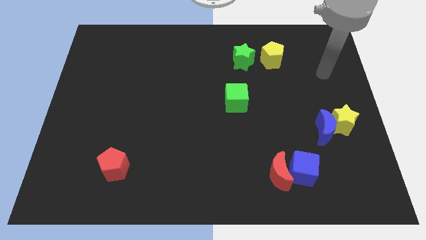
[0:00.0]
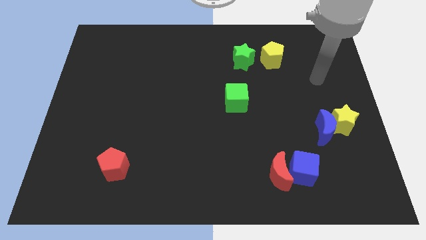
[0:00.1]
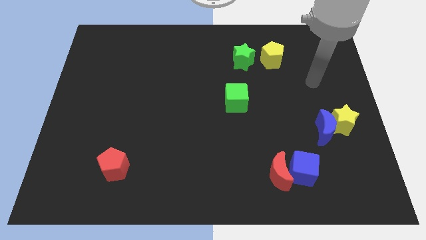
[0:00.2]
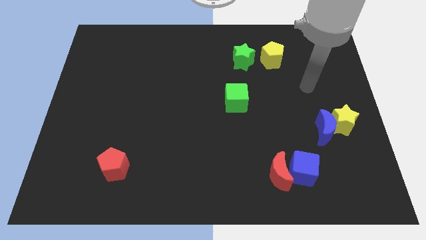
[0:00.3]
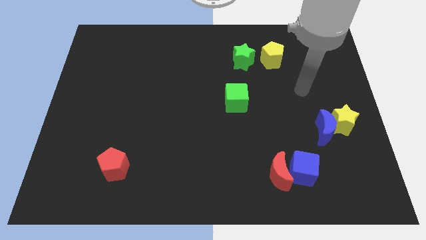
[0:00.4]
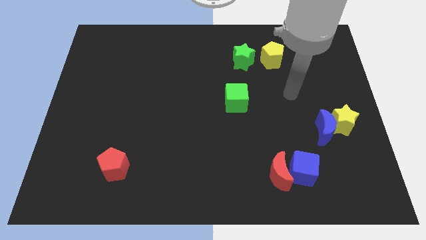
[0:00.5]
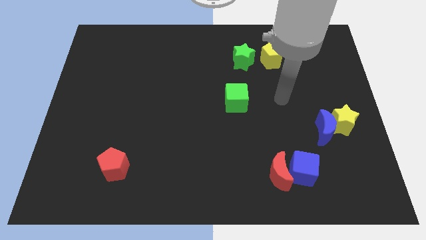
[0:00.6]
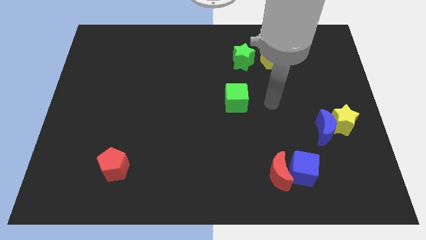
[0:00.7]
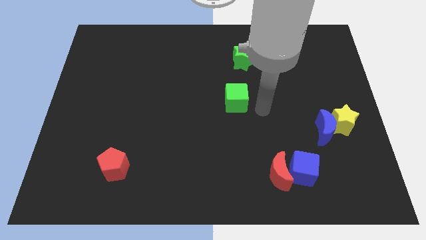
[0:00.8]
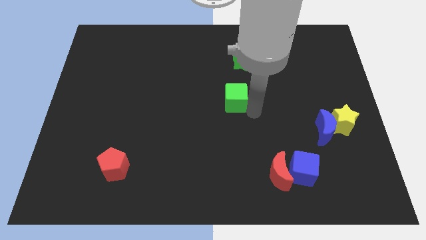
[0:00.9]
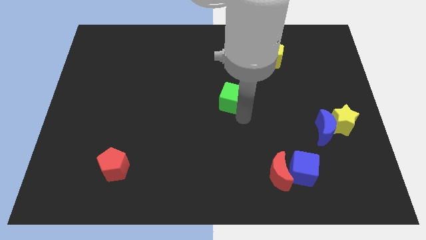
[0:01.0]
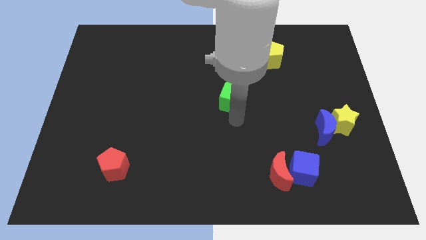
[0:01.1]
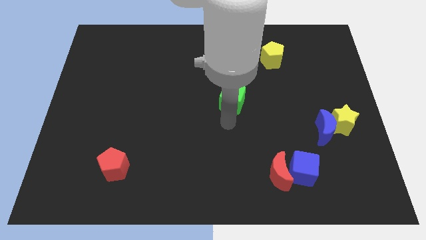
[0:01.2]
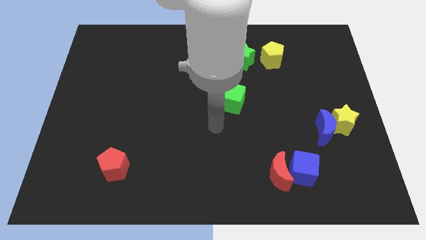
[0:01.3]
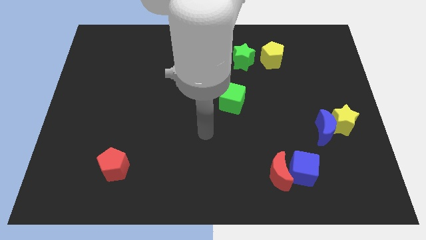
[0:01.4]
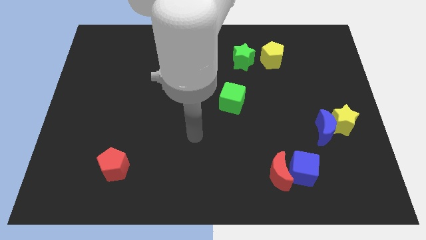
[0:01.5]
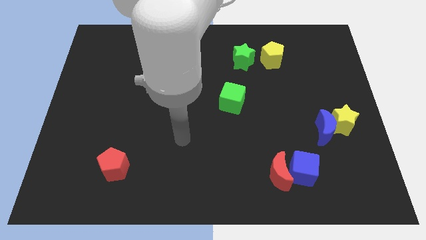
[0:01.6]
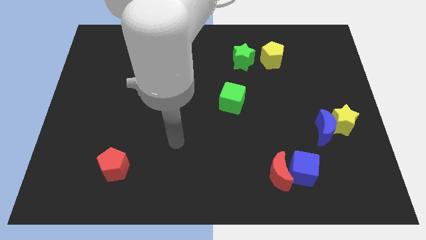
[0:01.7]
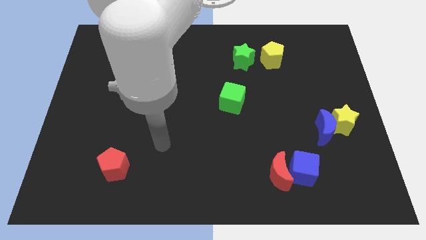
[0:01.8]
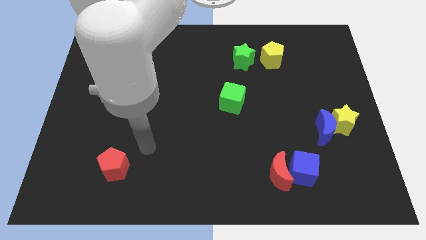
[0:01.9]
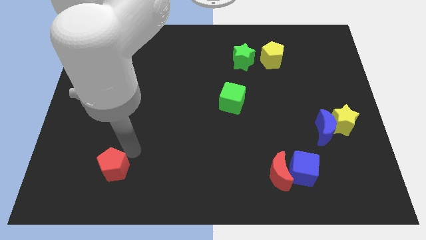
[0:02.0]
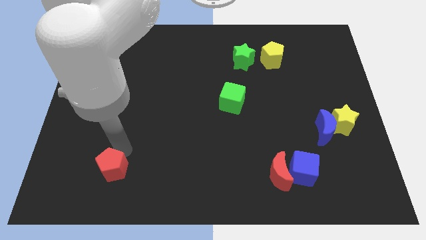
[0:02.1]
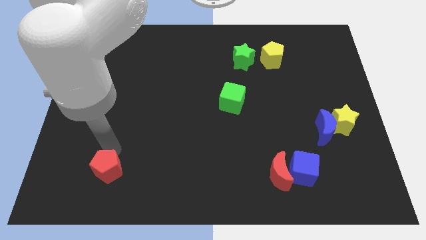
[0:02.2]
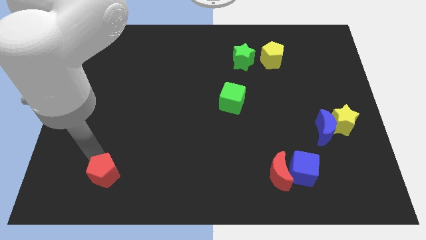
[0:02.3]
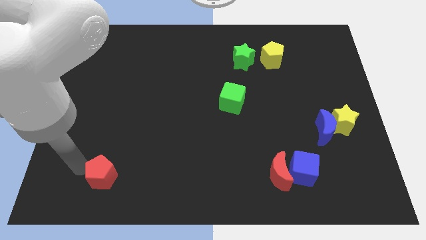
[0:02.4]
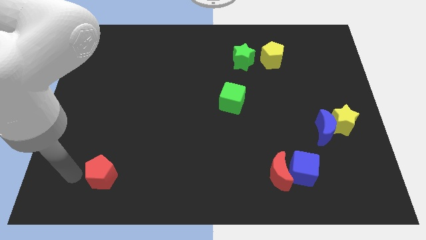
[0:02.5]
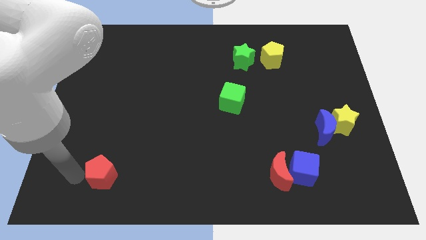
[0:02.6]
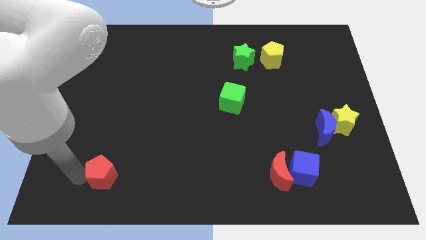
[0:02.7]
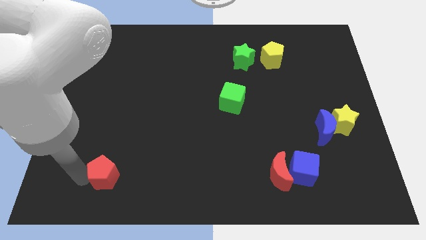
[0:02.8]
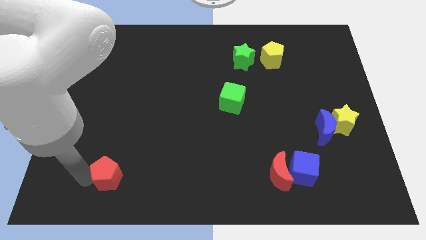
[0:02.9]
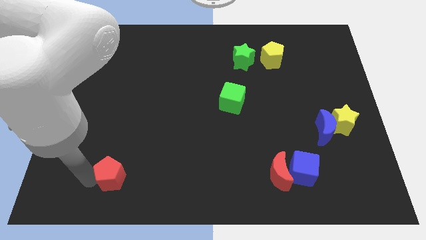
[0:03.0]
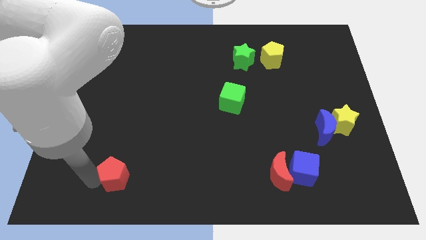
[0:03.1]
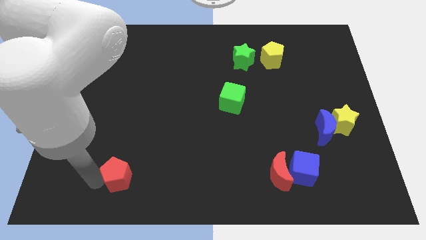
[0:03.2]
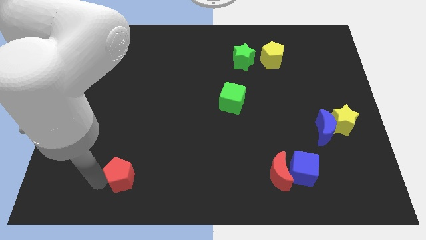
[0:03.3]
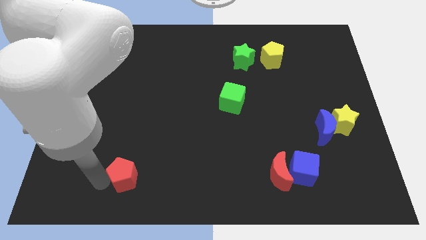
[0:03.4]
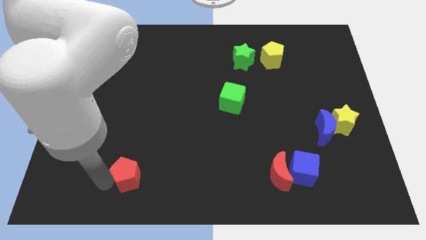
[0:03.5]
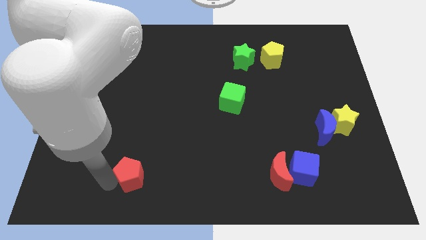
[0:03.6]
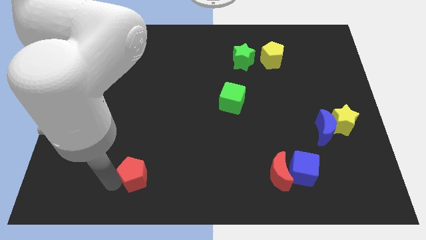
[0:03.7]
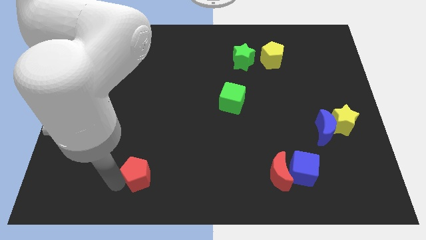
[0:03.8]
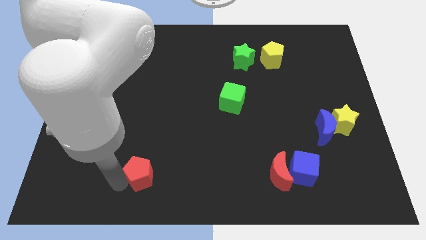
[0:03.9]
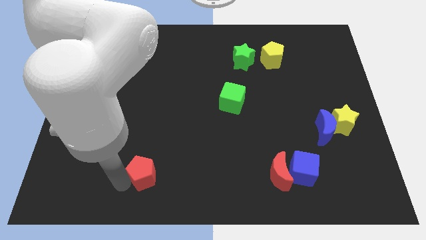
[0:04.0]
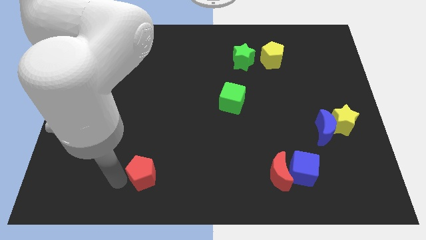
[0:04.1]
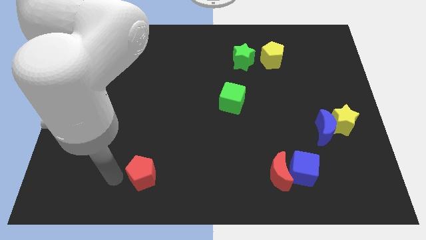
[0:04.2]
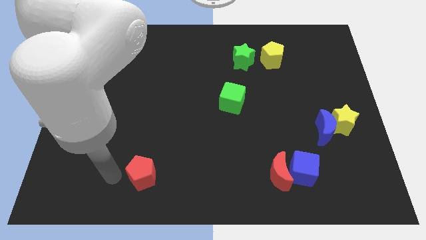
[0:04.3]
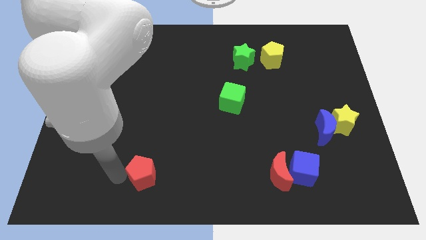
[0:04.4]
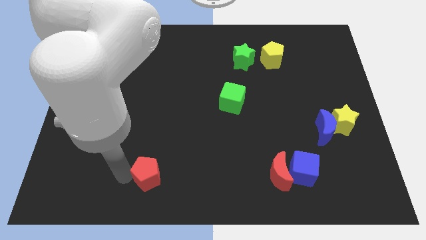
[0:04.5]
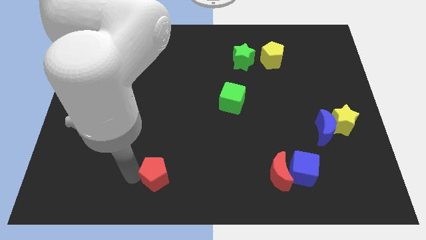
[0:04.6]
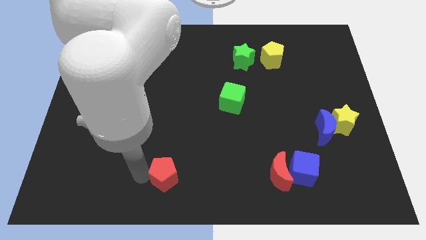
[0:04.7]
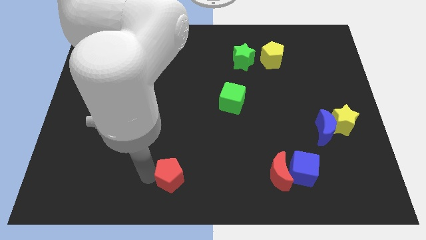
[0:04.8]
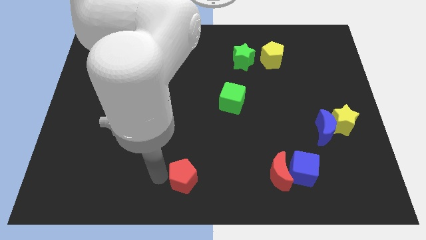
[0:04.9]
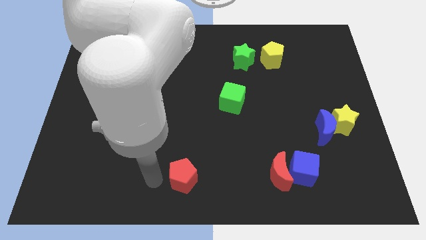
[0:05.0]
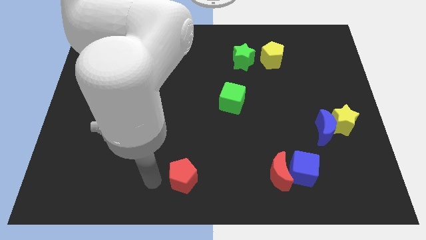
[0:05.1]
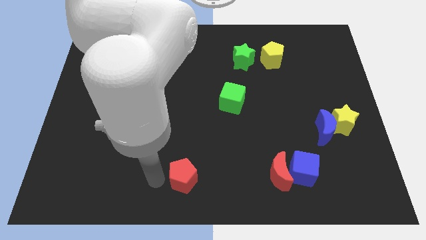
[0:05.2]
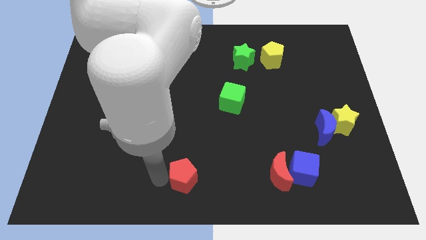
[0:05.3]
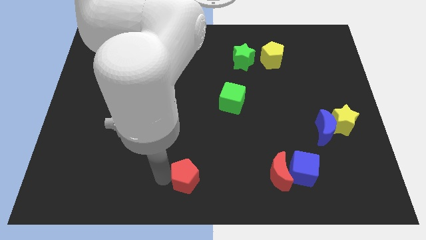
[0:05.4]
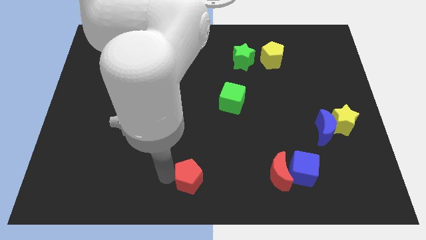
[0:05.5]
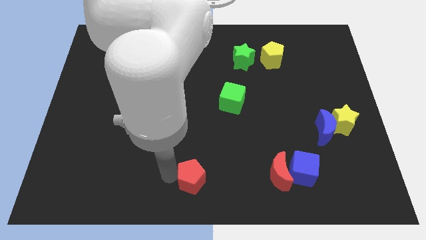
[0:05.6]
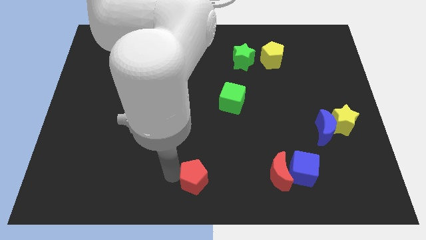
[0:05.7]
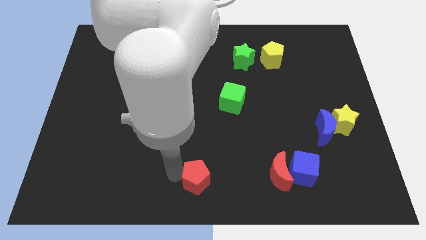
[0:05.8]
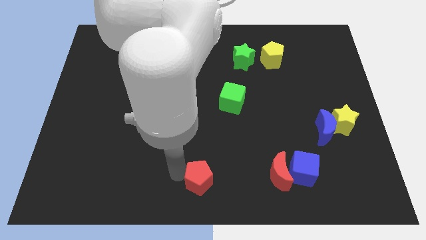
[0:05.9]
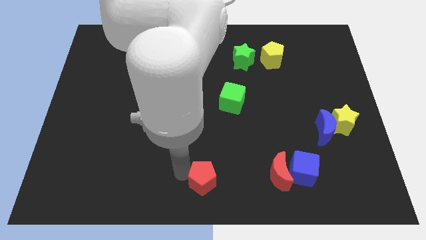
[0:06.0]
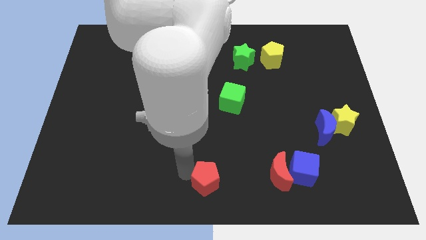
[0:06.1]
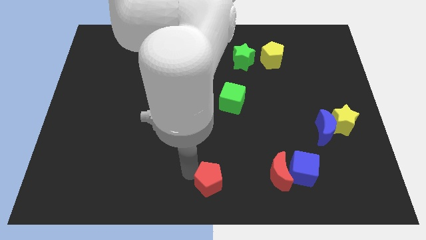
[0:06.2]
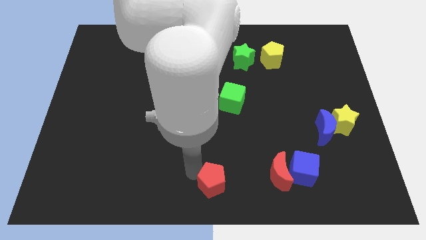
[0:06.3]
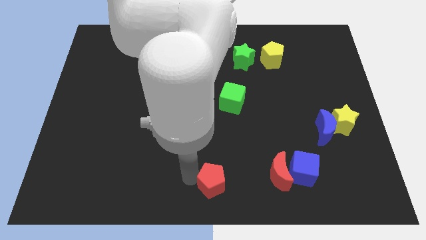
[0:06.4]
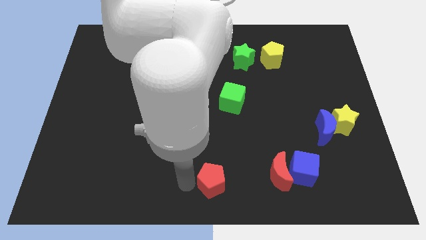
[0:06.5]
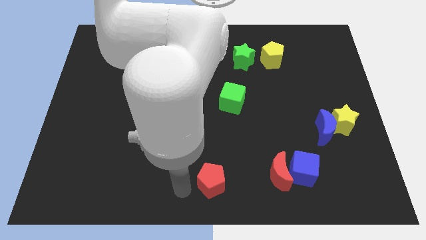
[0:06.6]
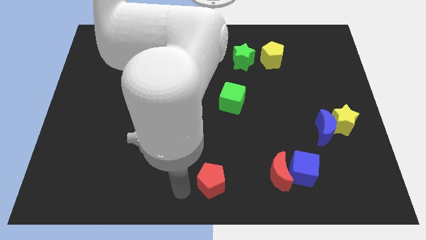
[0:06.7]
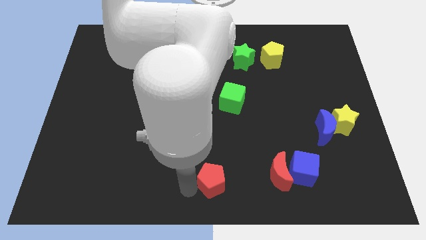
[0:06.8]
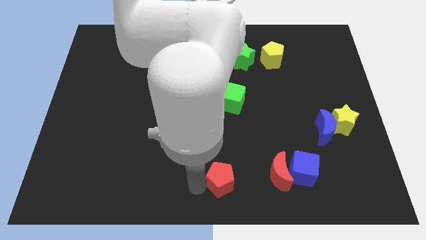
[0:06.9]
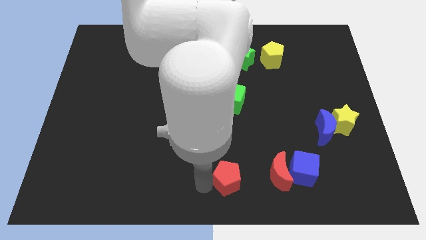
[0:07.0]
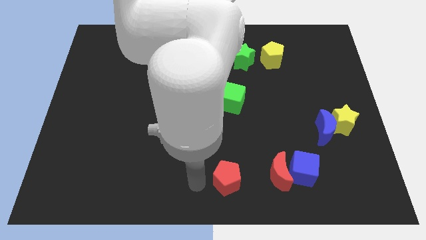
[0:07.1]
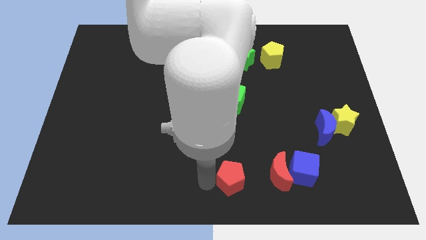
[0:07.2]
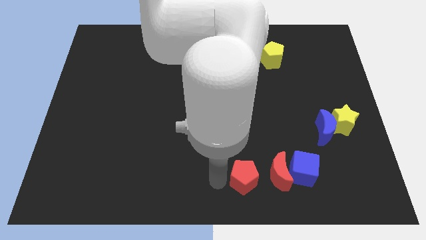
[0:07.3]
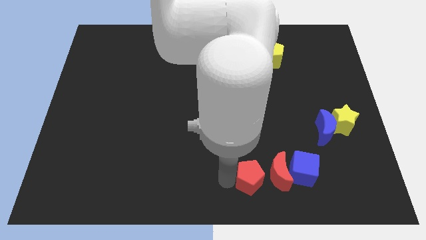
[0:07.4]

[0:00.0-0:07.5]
slide the red pentagon next to the red moon
